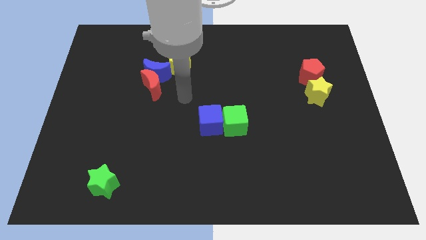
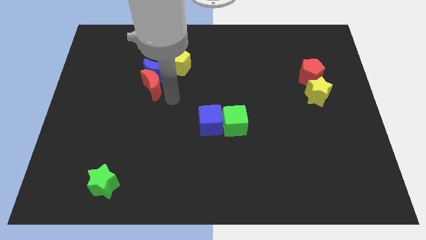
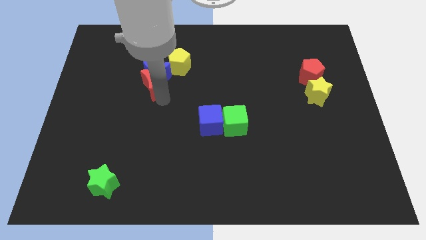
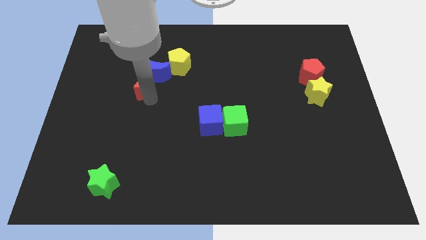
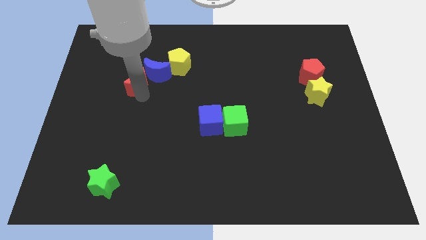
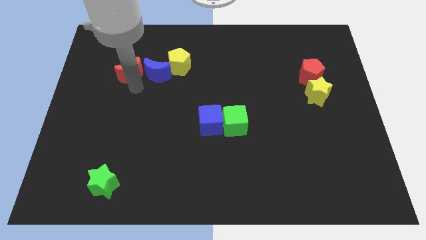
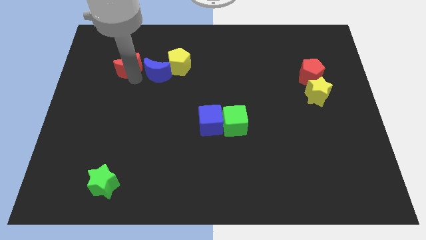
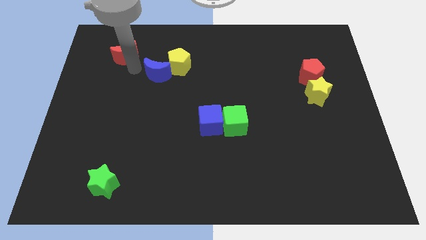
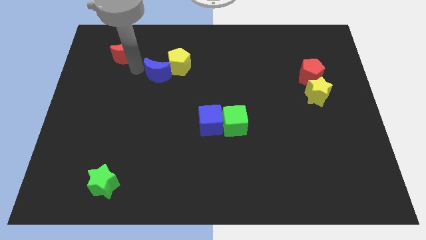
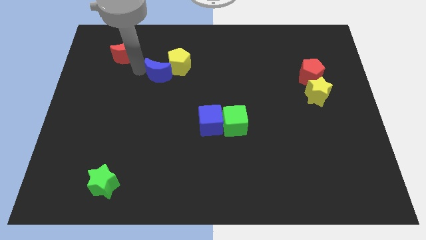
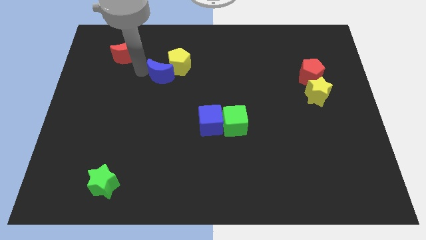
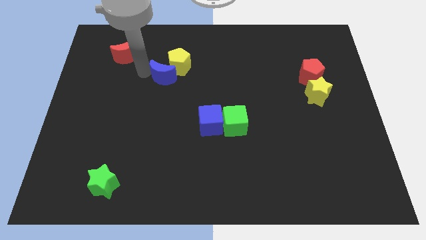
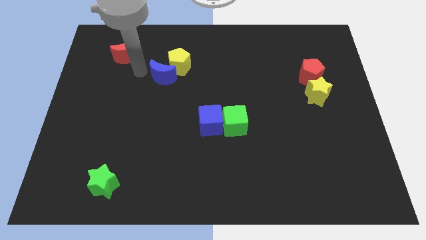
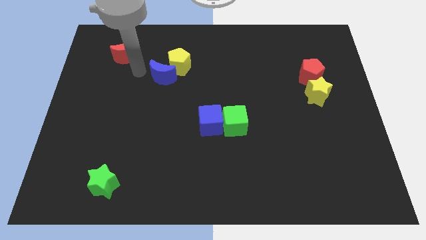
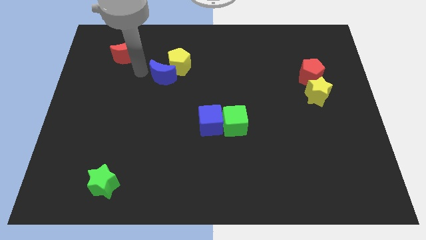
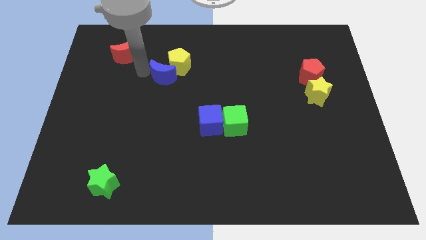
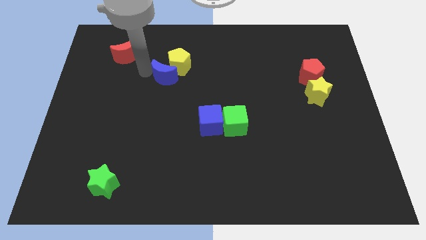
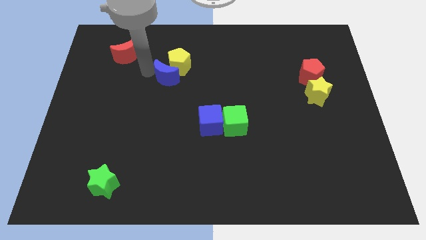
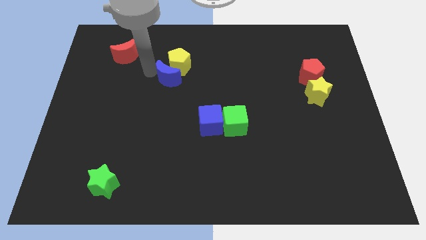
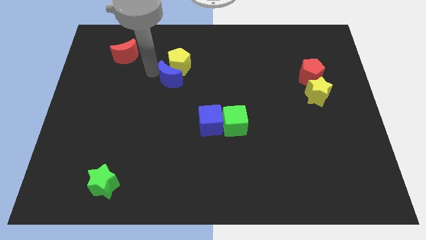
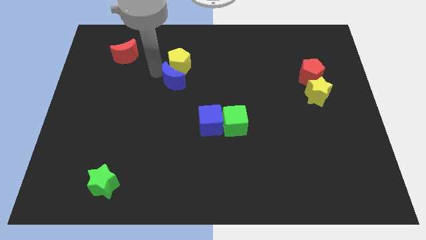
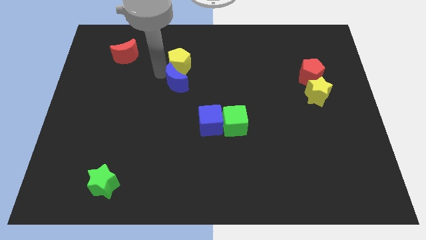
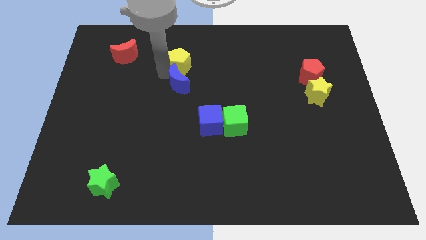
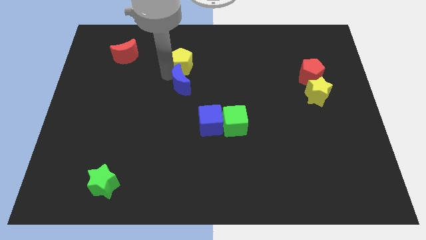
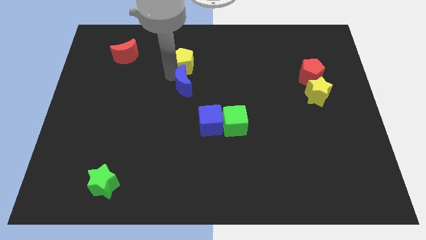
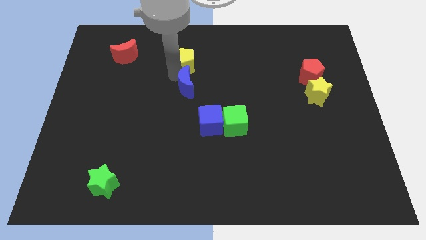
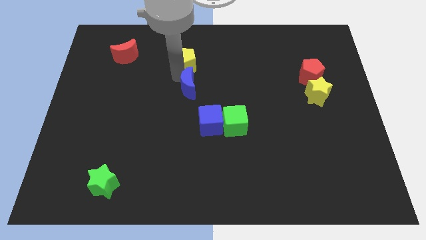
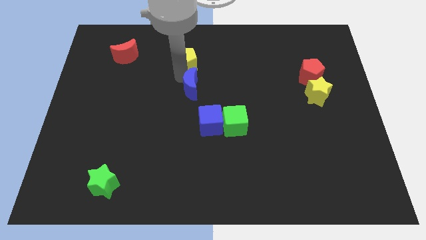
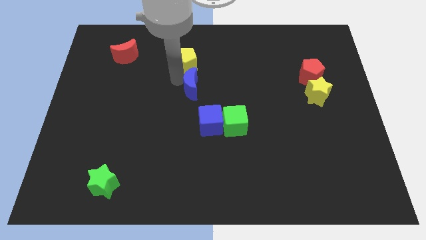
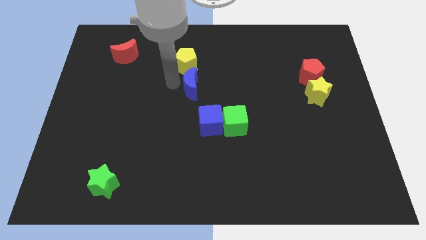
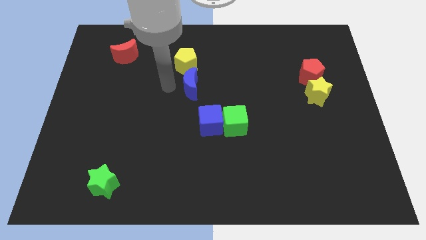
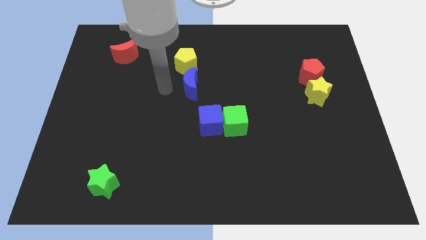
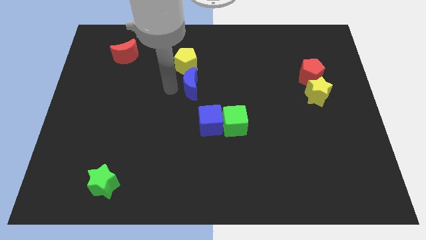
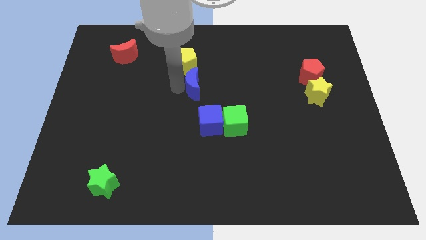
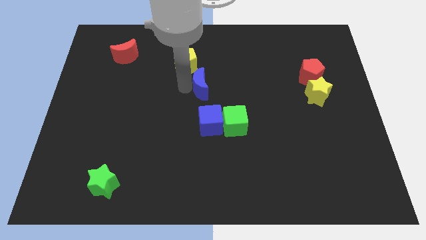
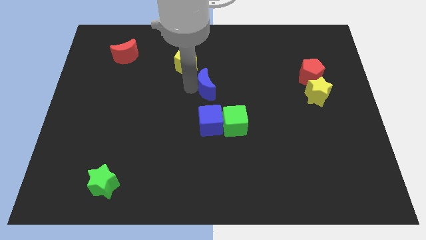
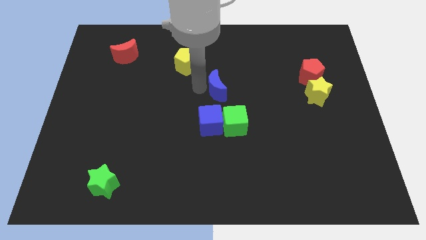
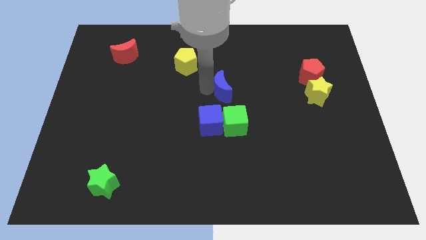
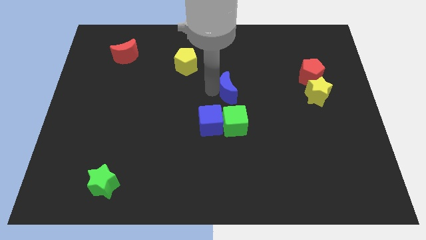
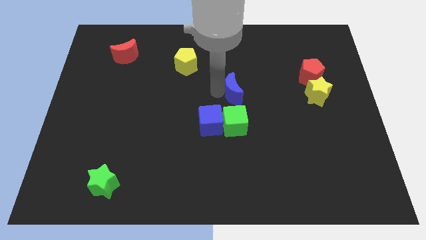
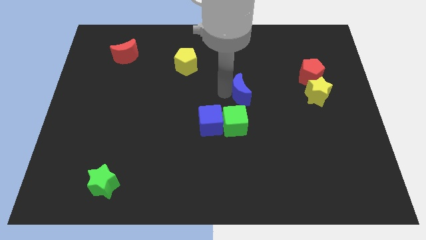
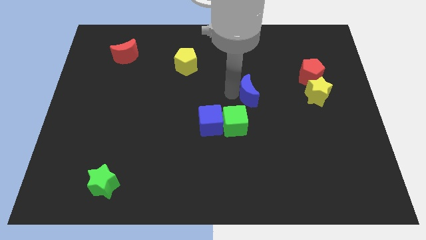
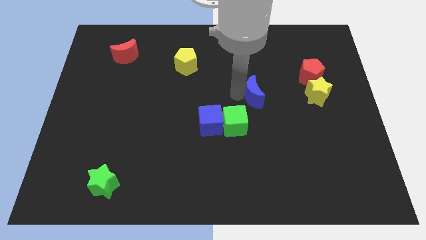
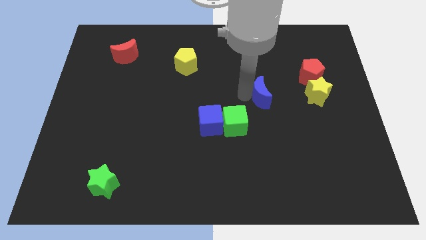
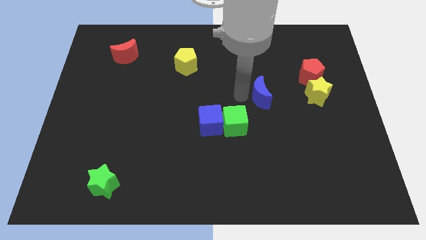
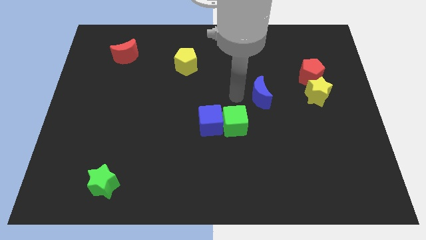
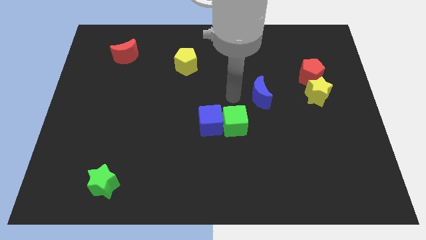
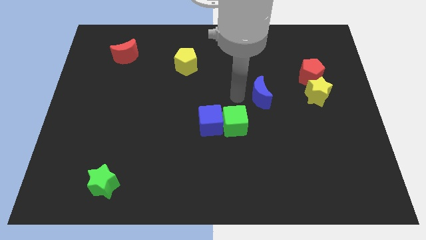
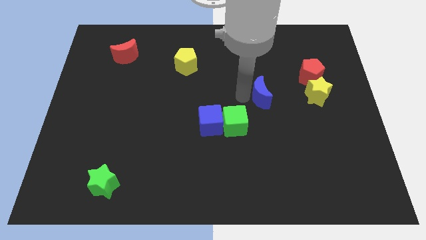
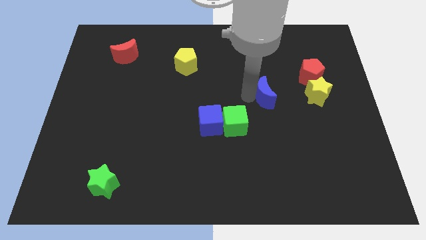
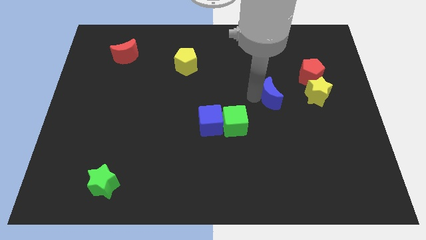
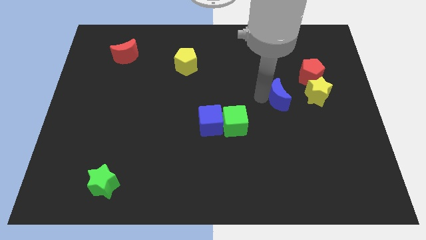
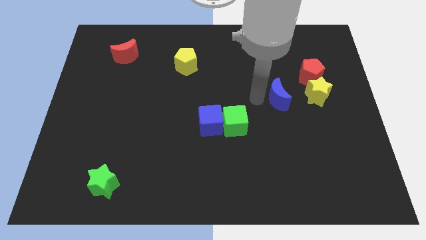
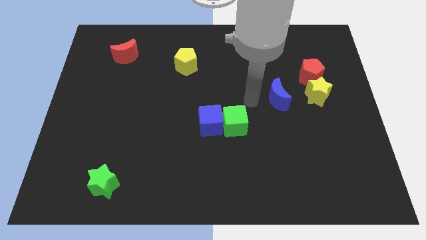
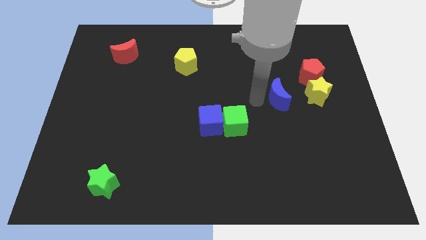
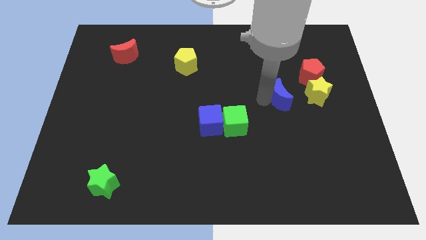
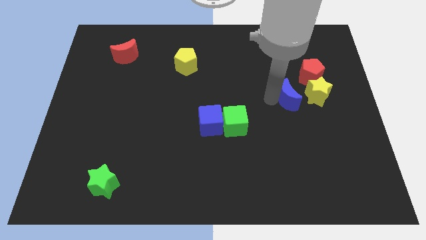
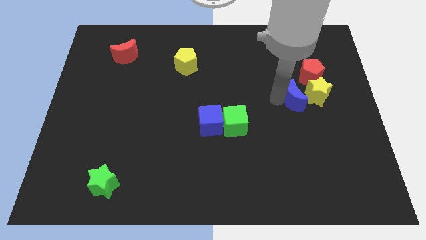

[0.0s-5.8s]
move the blue moon towards the yellow star

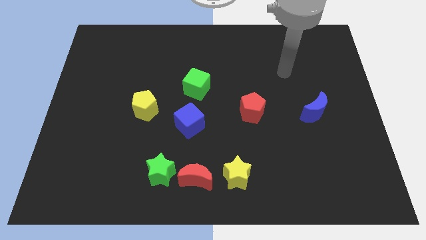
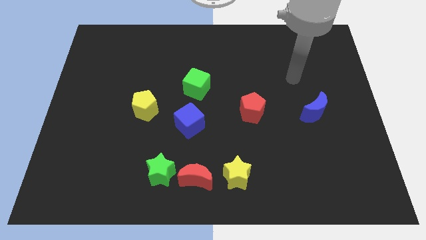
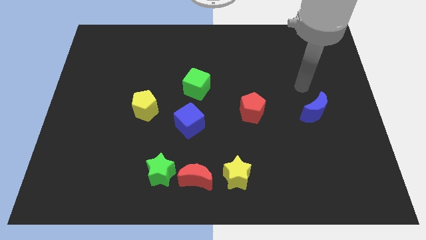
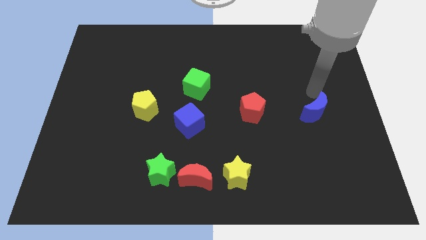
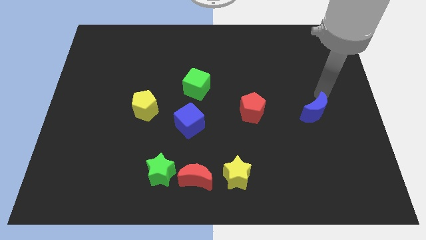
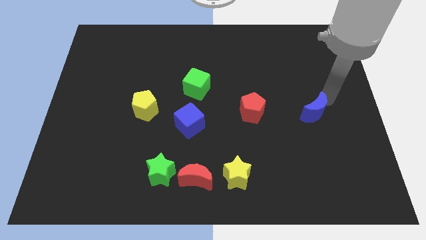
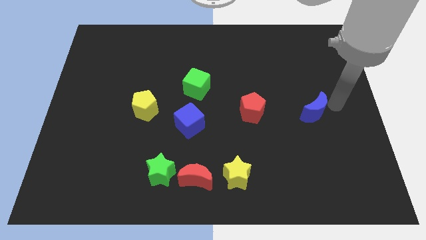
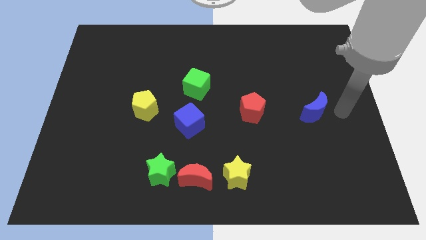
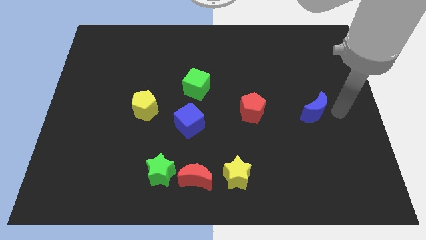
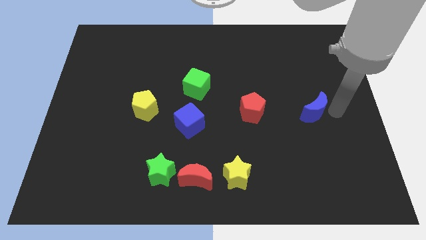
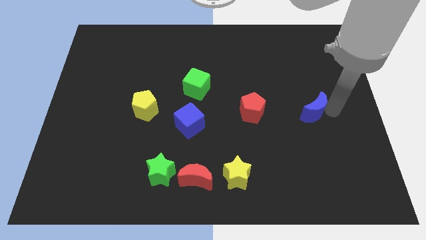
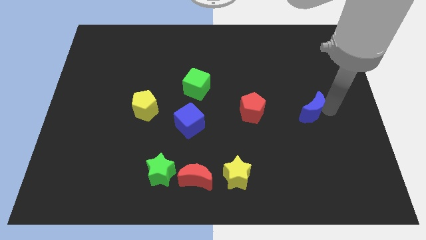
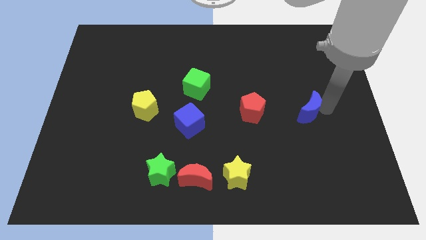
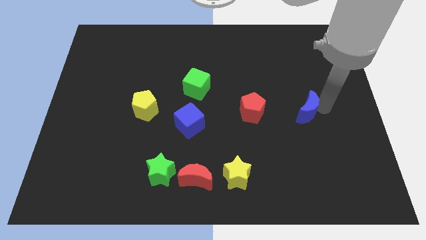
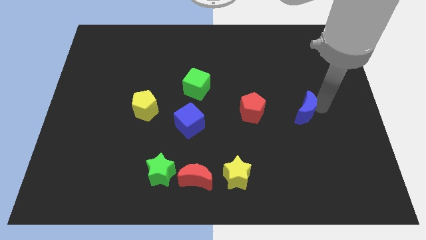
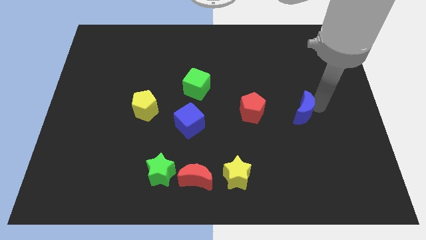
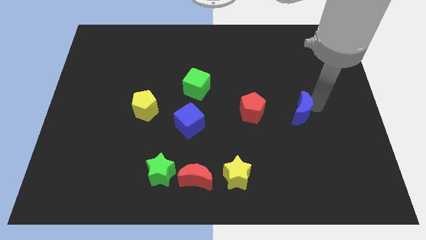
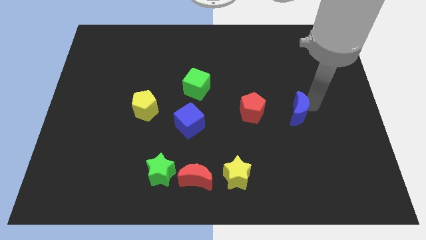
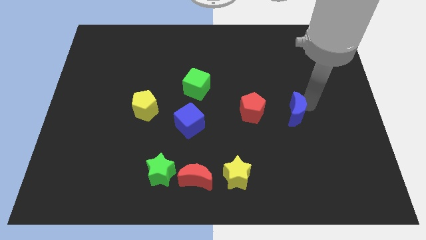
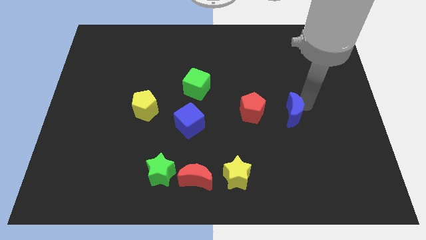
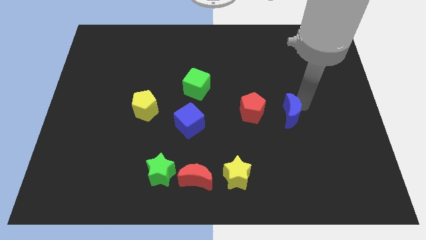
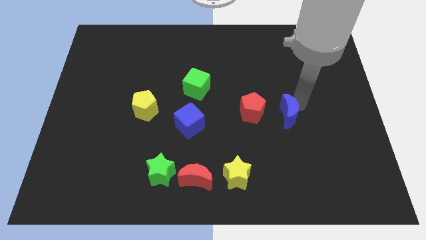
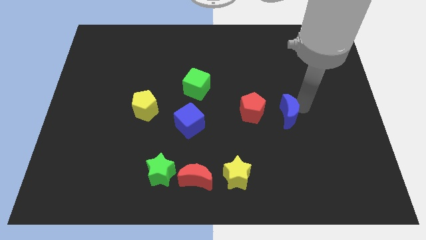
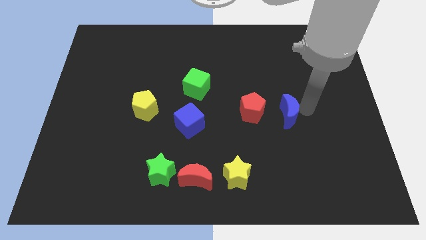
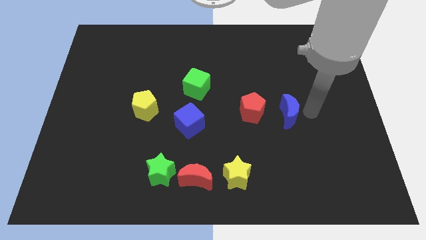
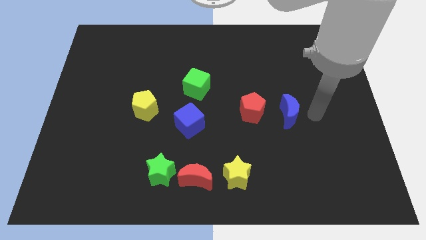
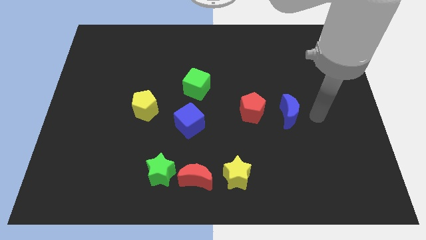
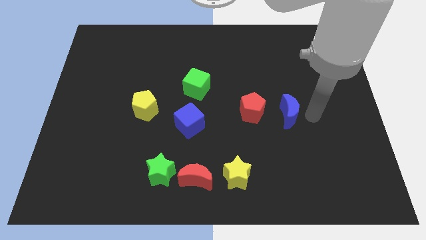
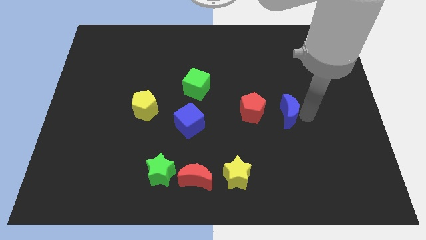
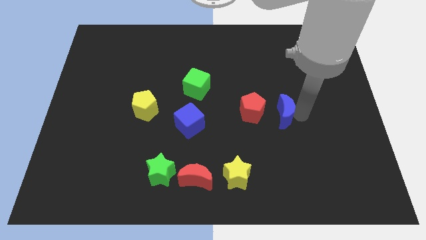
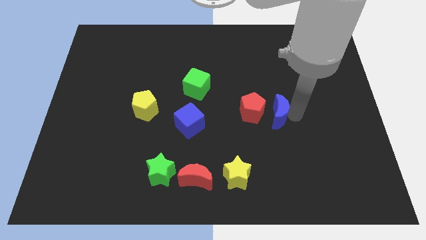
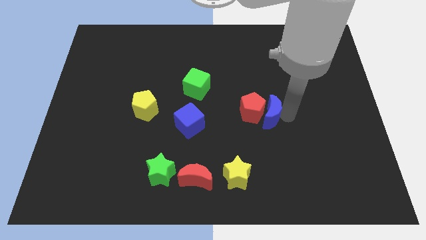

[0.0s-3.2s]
push the blue moon close to the red pentagon
